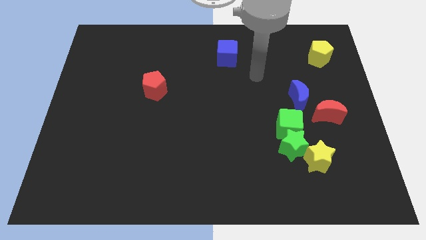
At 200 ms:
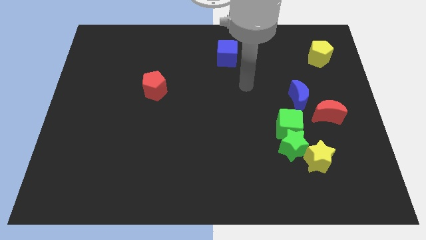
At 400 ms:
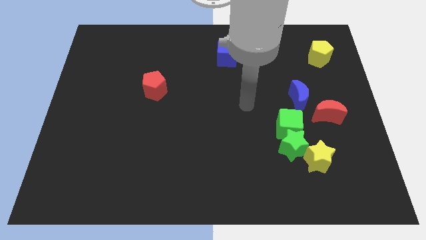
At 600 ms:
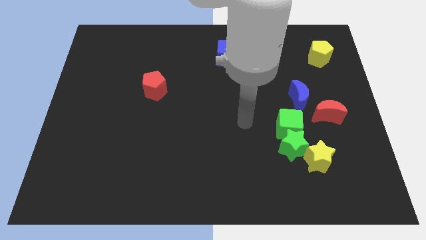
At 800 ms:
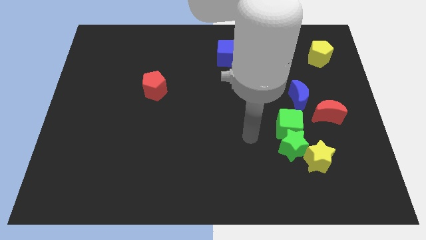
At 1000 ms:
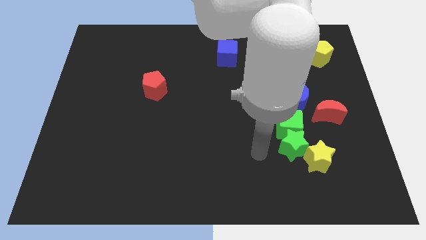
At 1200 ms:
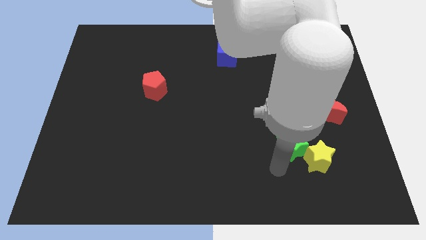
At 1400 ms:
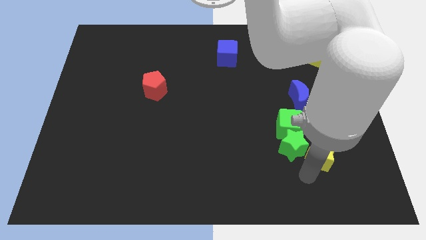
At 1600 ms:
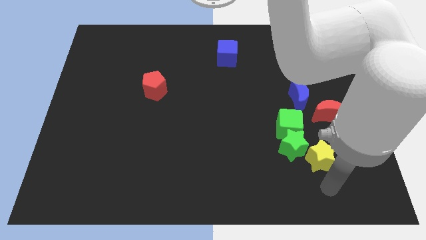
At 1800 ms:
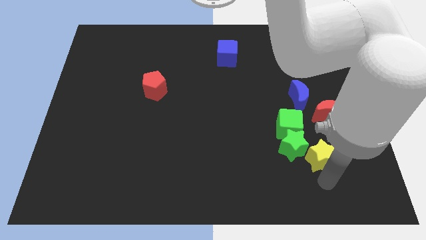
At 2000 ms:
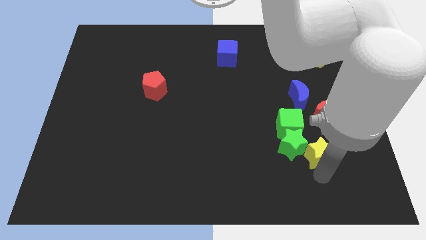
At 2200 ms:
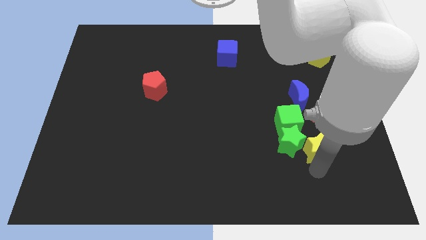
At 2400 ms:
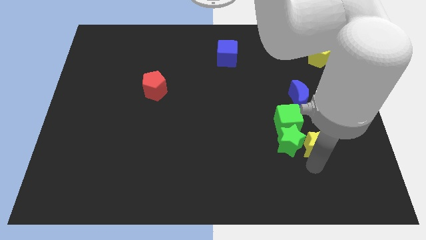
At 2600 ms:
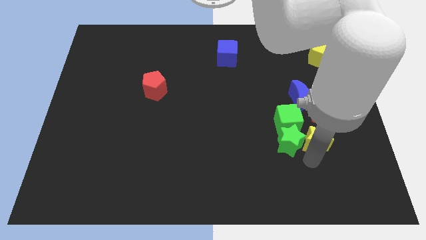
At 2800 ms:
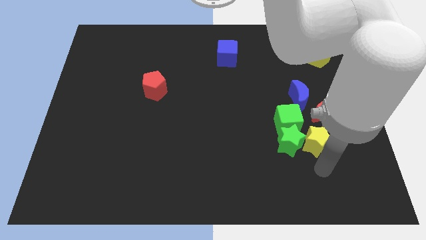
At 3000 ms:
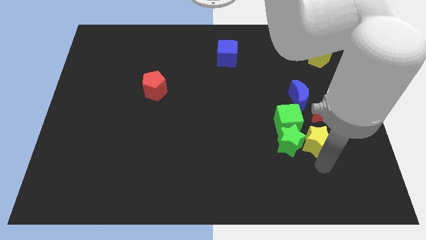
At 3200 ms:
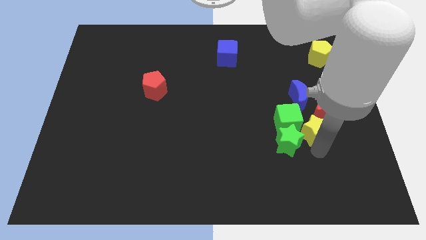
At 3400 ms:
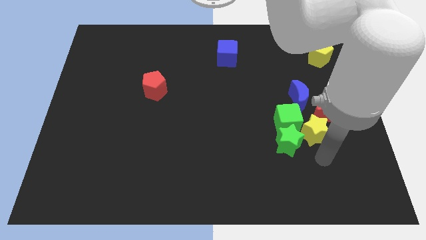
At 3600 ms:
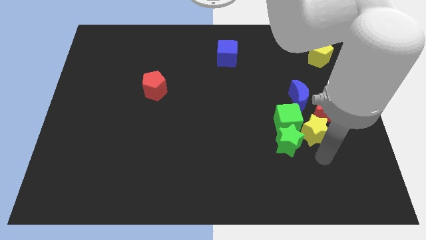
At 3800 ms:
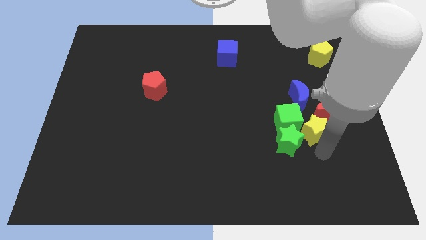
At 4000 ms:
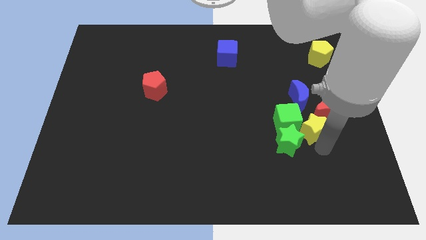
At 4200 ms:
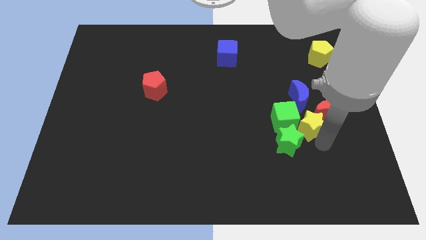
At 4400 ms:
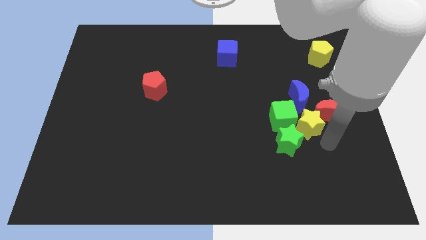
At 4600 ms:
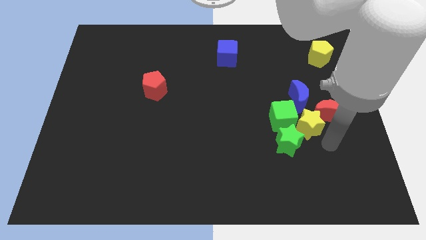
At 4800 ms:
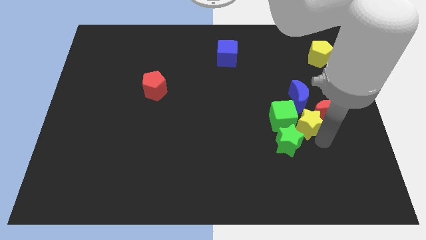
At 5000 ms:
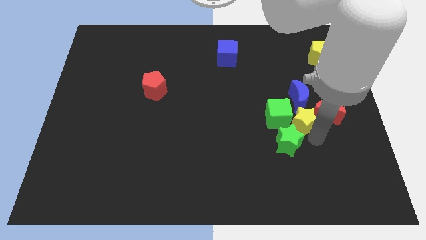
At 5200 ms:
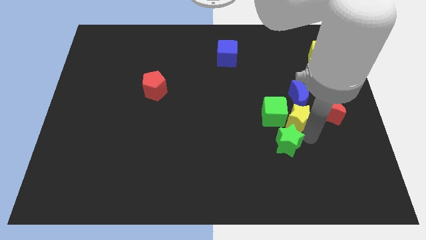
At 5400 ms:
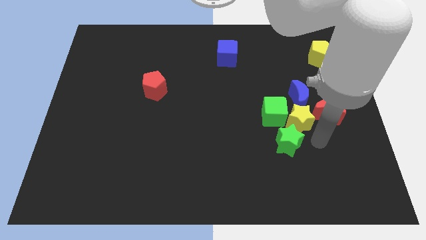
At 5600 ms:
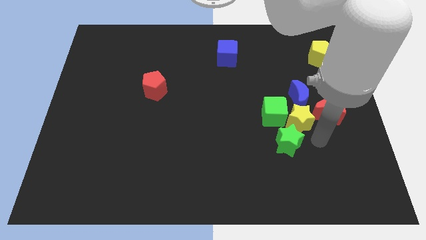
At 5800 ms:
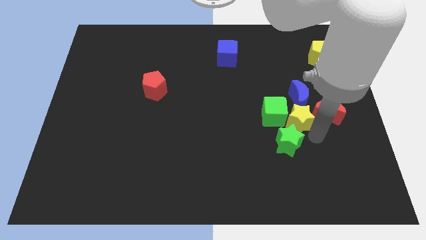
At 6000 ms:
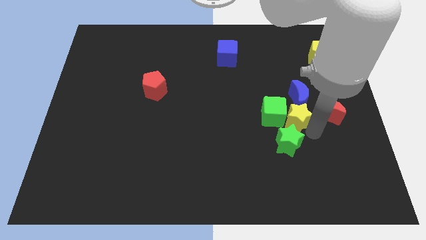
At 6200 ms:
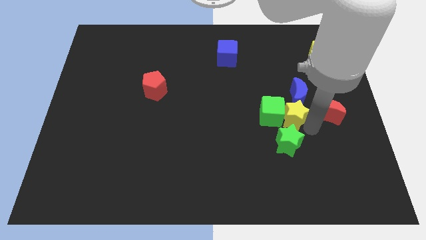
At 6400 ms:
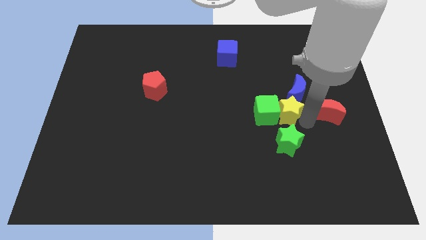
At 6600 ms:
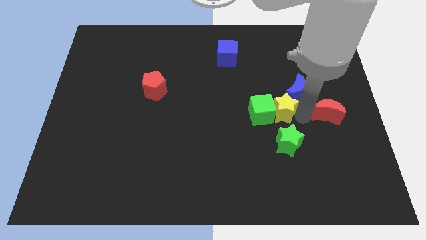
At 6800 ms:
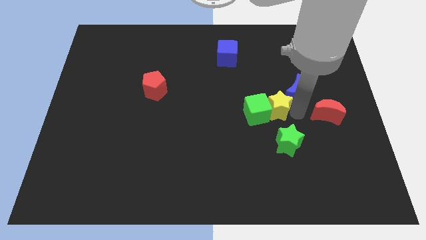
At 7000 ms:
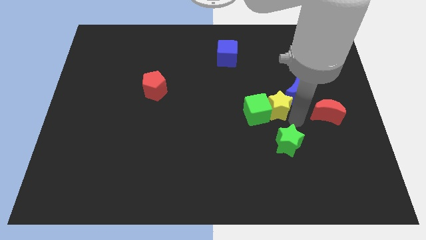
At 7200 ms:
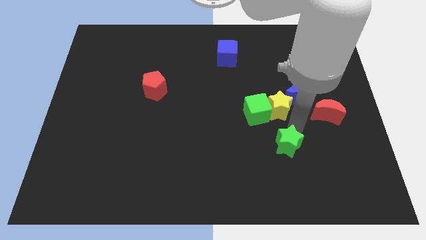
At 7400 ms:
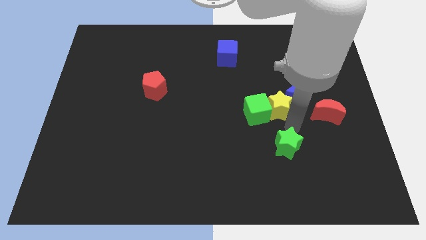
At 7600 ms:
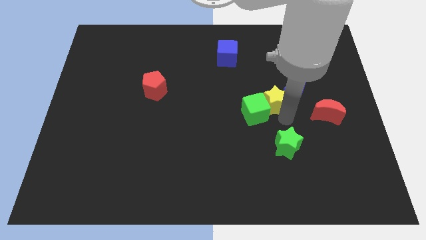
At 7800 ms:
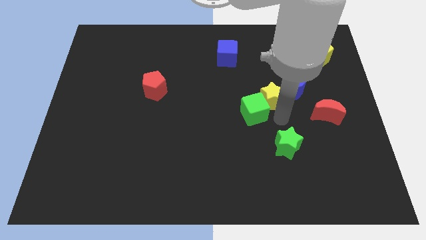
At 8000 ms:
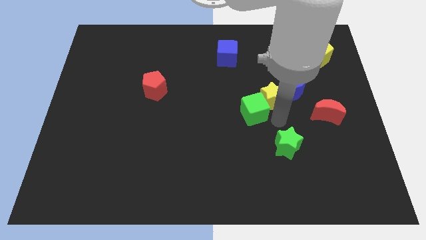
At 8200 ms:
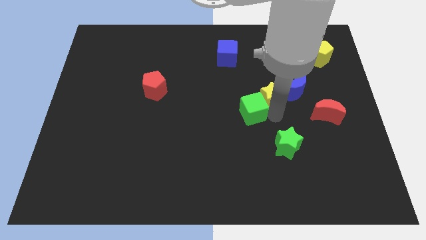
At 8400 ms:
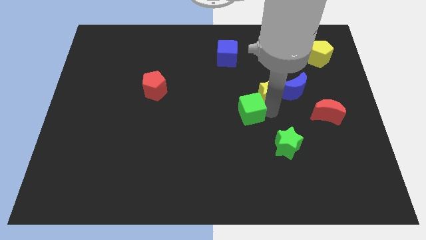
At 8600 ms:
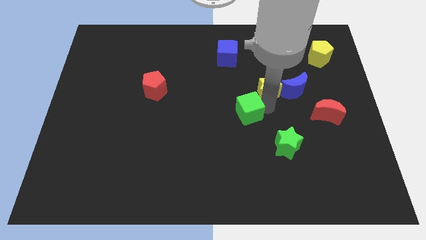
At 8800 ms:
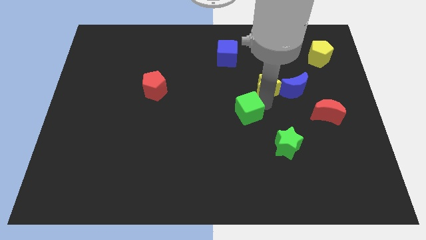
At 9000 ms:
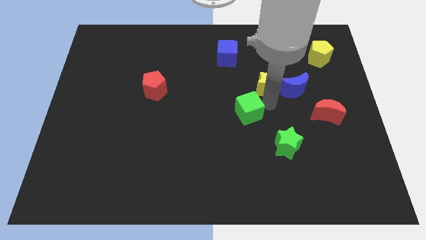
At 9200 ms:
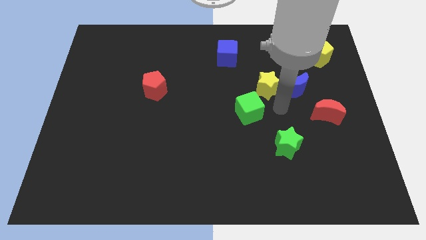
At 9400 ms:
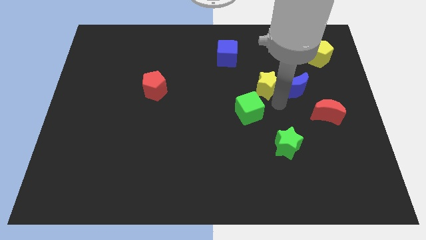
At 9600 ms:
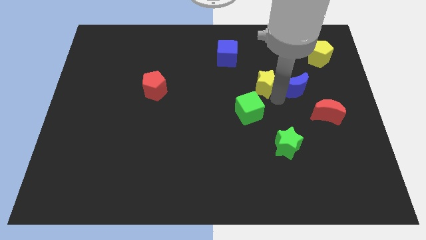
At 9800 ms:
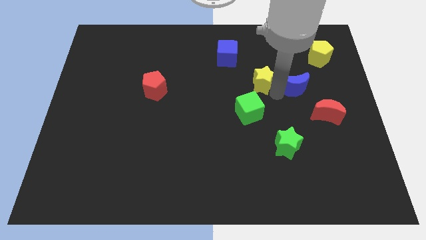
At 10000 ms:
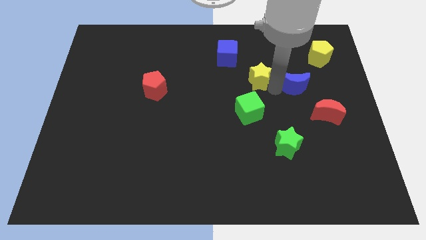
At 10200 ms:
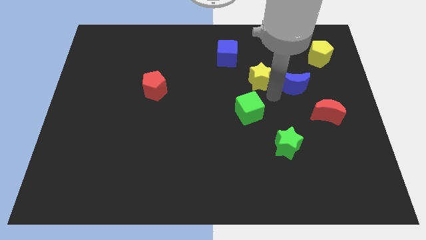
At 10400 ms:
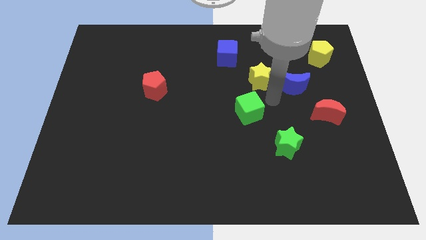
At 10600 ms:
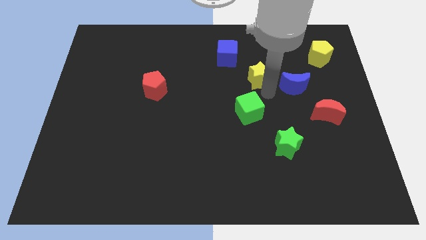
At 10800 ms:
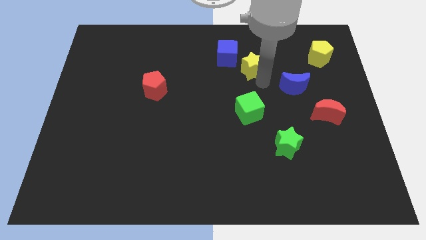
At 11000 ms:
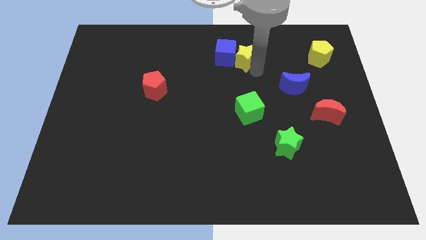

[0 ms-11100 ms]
move the yellow star next to the blue cube

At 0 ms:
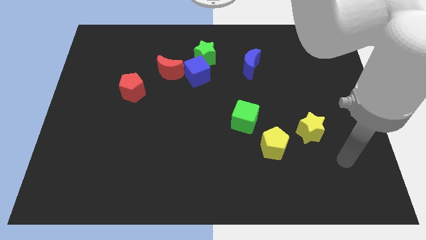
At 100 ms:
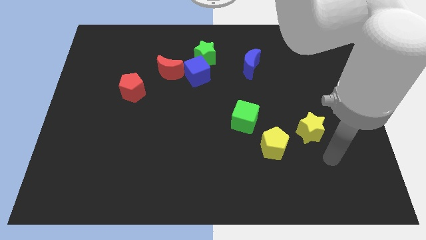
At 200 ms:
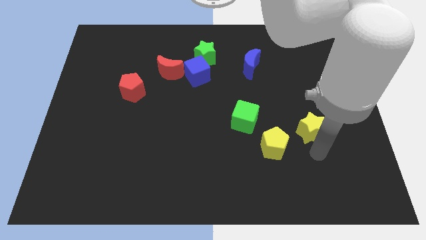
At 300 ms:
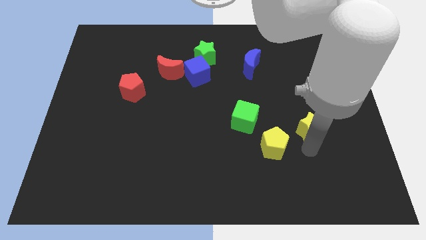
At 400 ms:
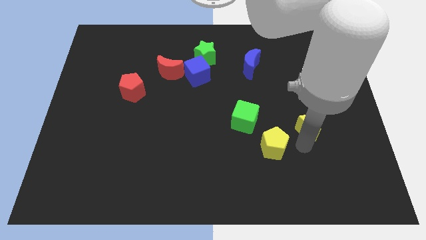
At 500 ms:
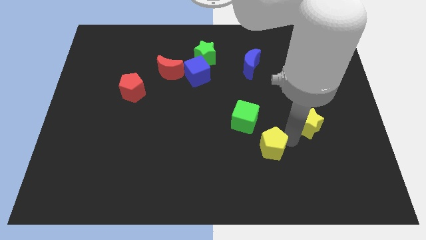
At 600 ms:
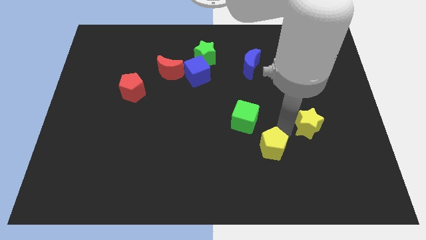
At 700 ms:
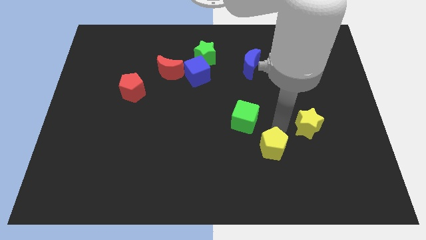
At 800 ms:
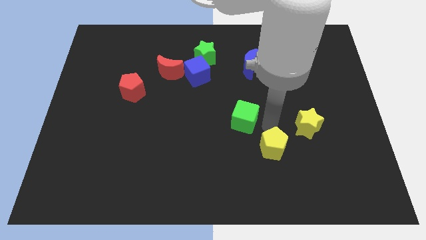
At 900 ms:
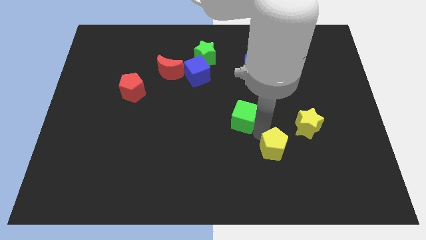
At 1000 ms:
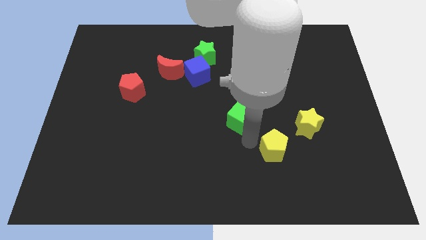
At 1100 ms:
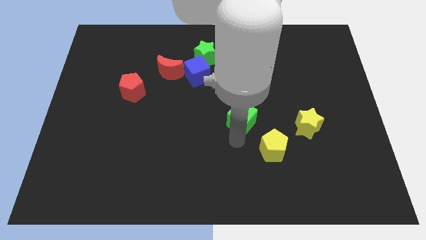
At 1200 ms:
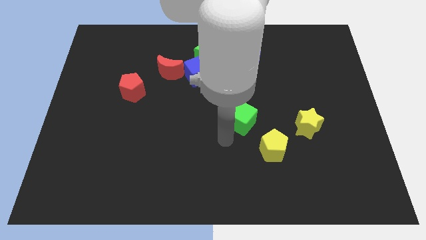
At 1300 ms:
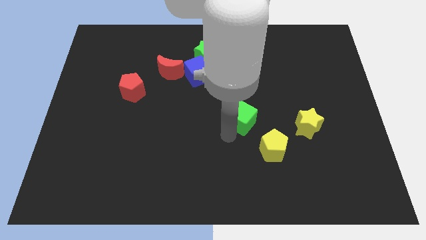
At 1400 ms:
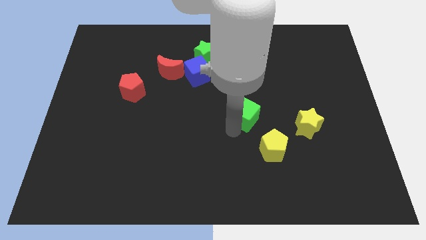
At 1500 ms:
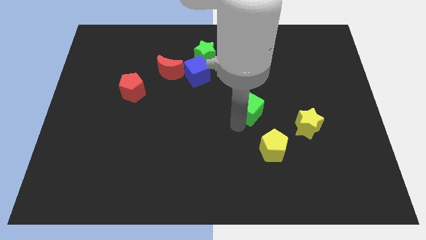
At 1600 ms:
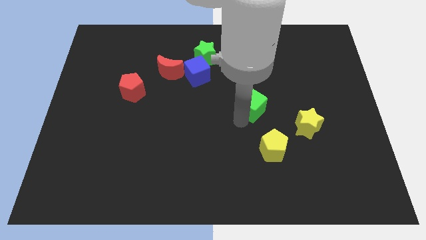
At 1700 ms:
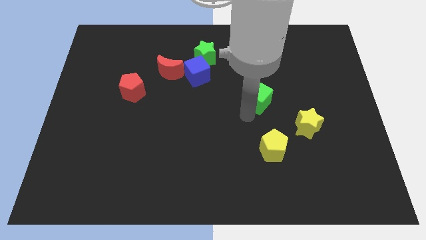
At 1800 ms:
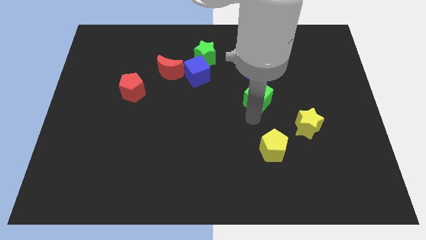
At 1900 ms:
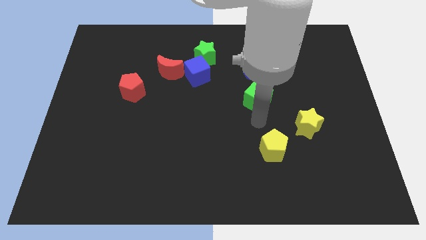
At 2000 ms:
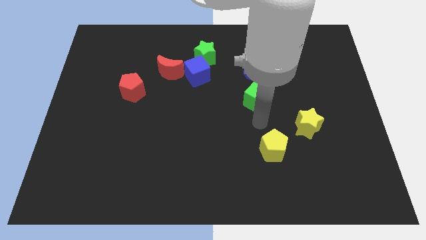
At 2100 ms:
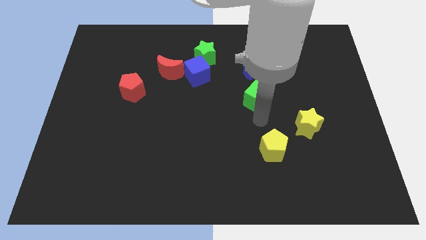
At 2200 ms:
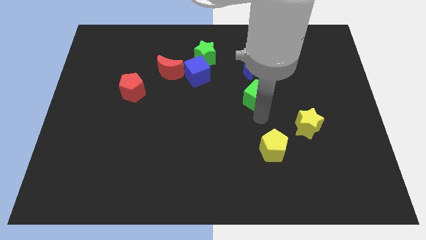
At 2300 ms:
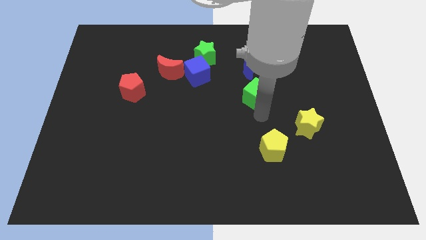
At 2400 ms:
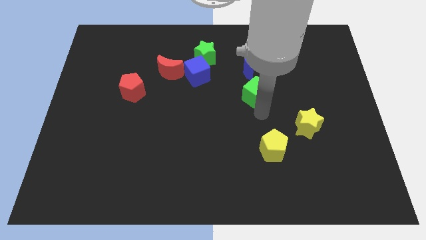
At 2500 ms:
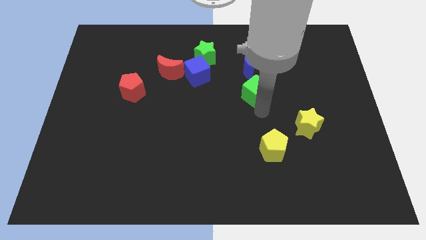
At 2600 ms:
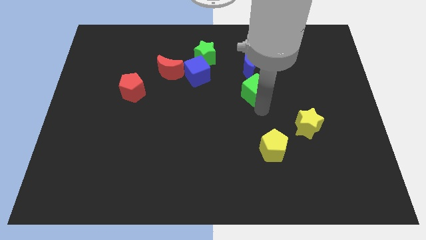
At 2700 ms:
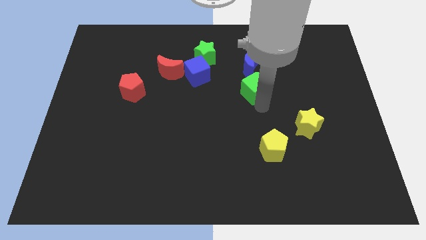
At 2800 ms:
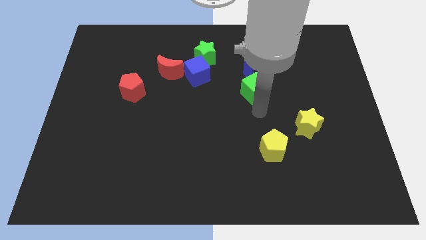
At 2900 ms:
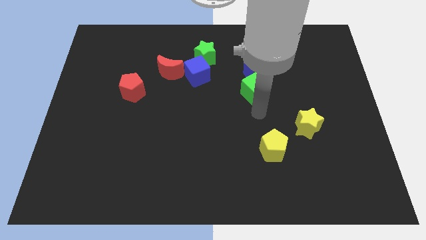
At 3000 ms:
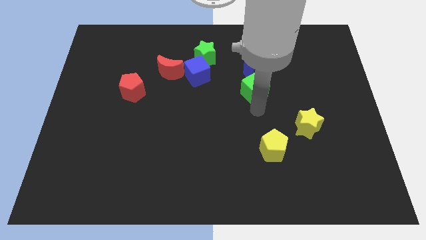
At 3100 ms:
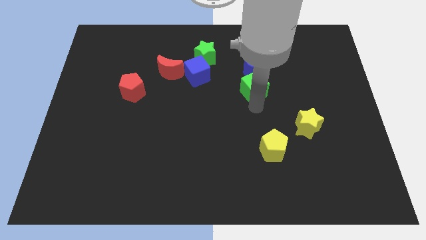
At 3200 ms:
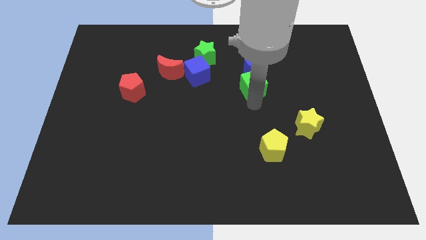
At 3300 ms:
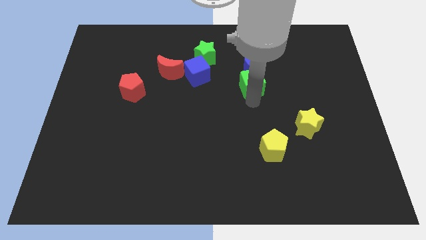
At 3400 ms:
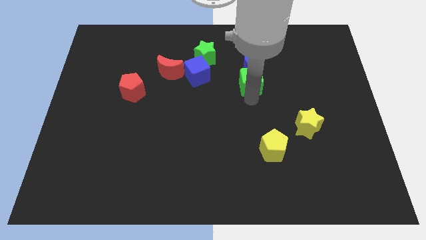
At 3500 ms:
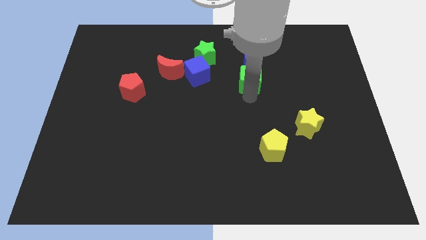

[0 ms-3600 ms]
push the green cube to the blue moon
